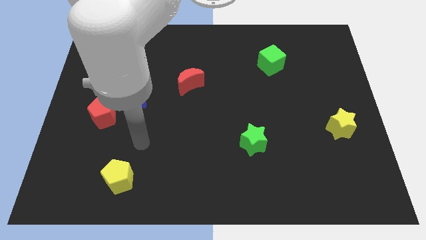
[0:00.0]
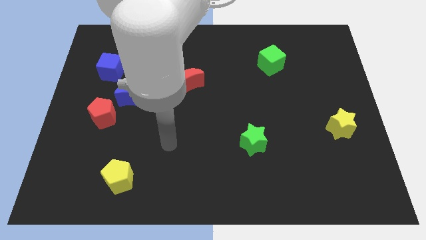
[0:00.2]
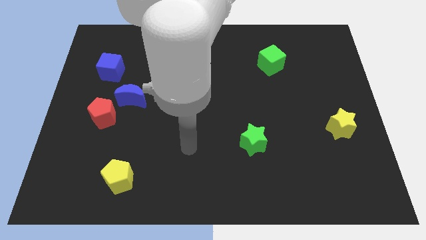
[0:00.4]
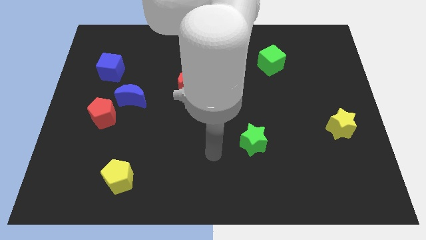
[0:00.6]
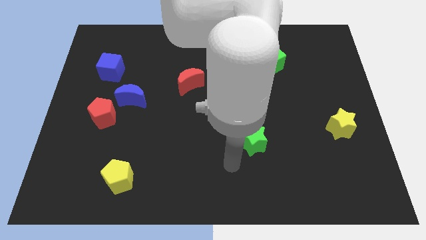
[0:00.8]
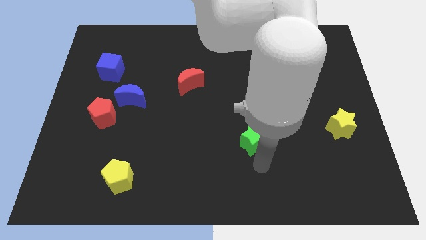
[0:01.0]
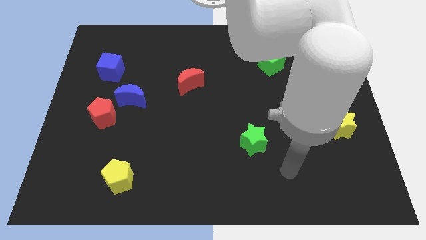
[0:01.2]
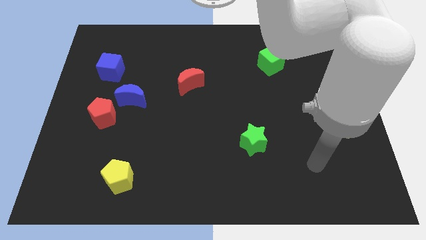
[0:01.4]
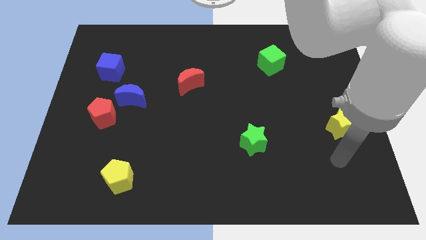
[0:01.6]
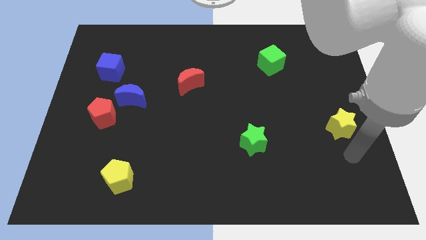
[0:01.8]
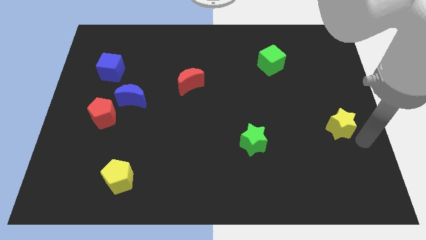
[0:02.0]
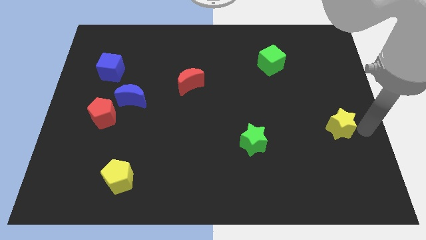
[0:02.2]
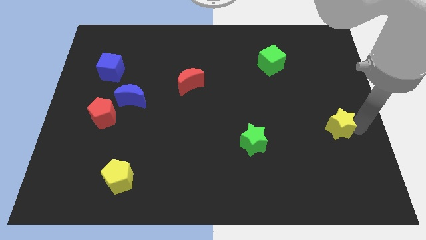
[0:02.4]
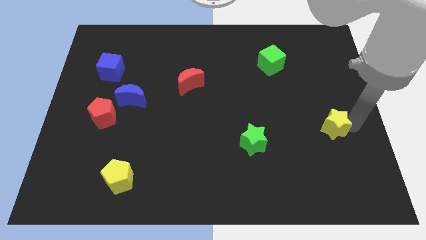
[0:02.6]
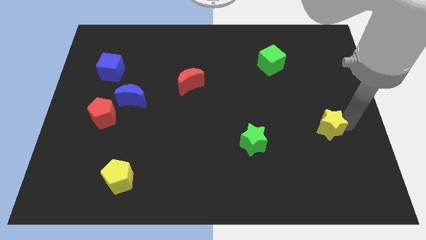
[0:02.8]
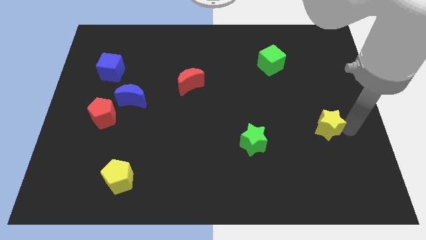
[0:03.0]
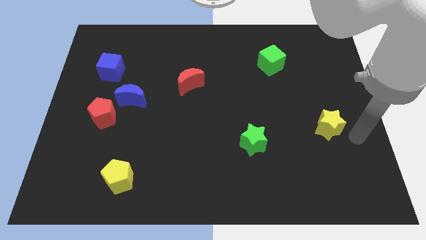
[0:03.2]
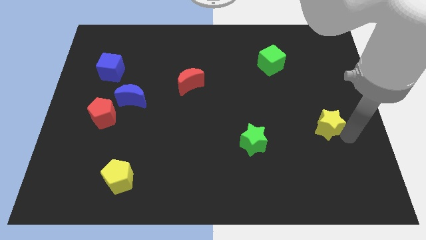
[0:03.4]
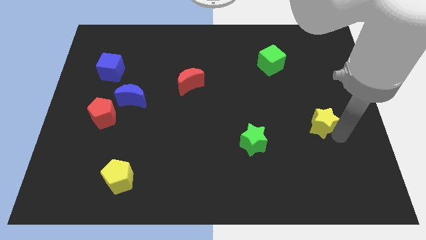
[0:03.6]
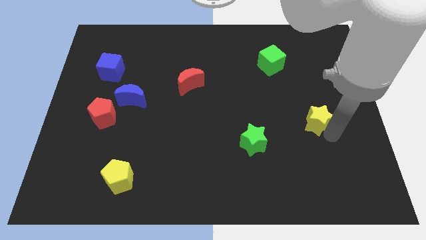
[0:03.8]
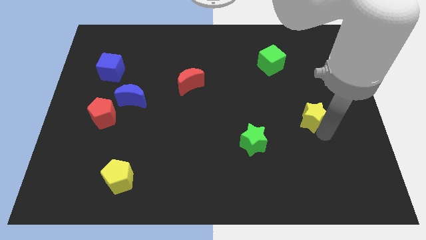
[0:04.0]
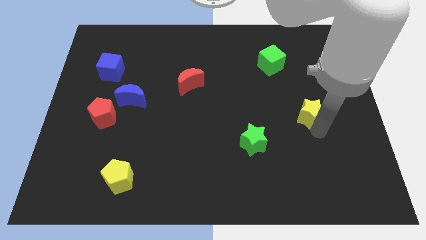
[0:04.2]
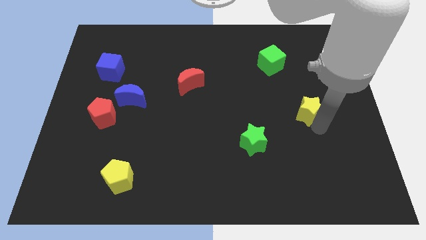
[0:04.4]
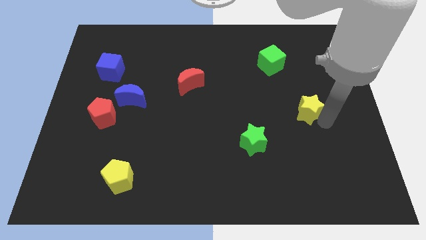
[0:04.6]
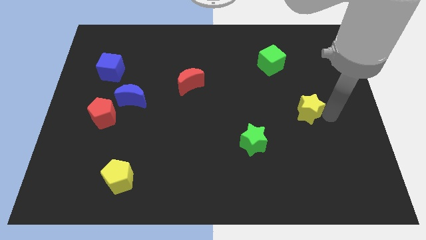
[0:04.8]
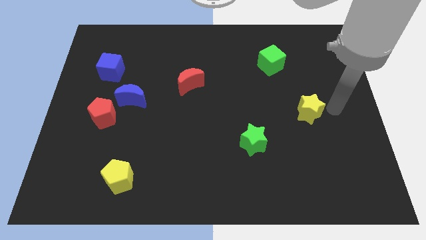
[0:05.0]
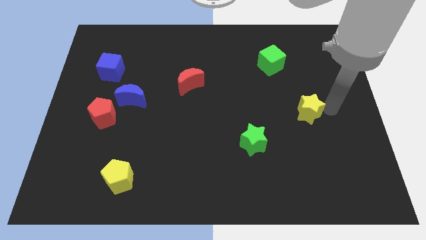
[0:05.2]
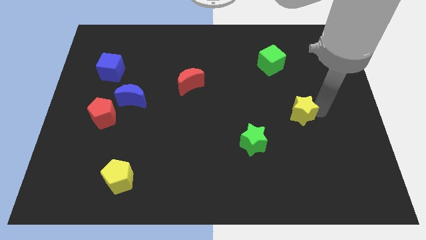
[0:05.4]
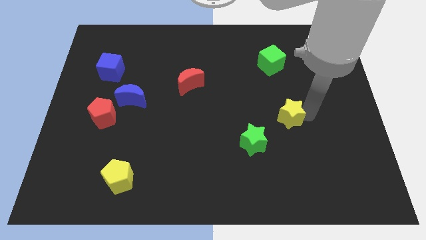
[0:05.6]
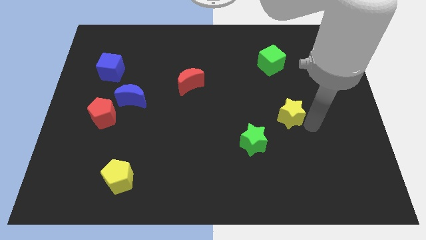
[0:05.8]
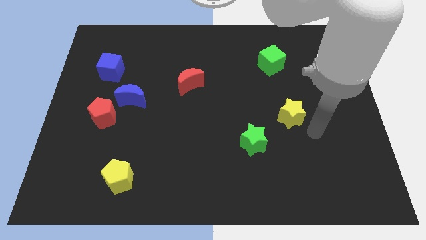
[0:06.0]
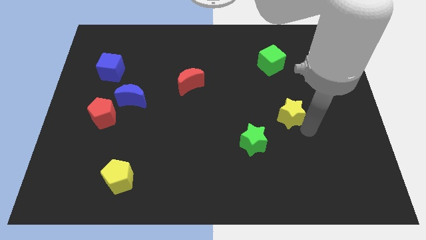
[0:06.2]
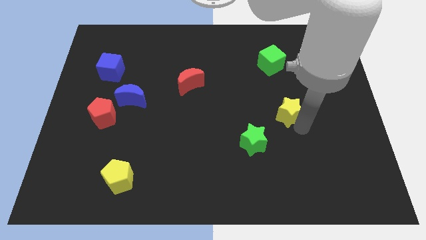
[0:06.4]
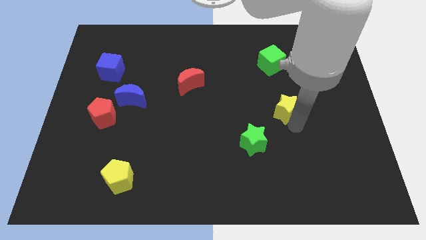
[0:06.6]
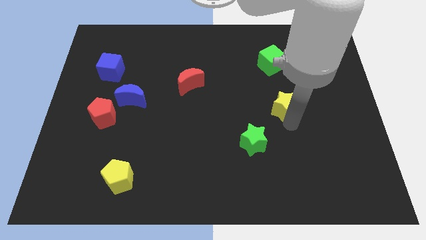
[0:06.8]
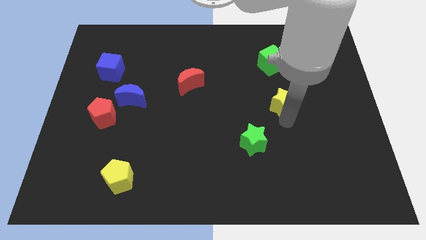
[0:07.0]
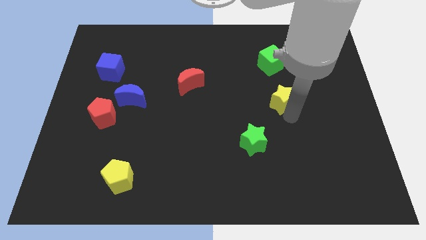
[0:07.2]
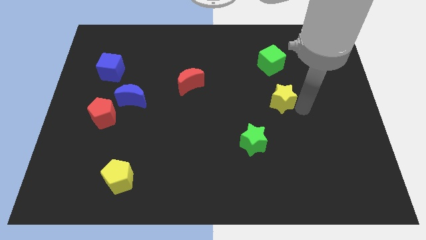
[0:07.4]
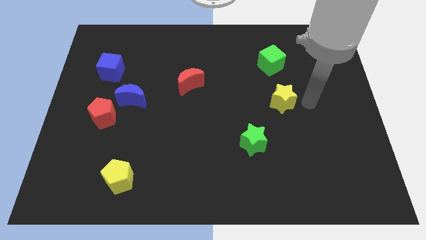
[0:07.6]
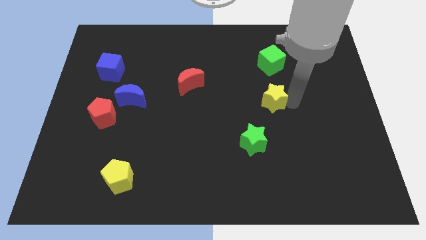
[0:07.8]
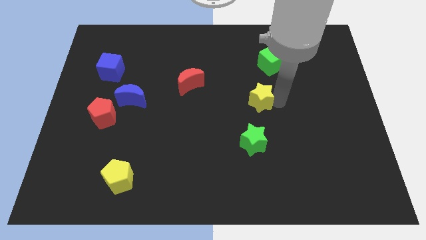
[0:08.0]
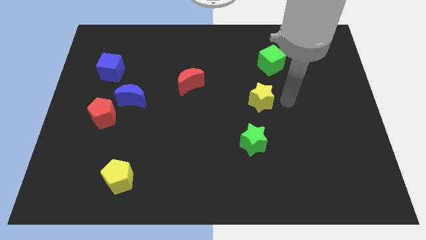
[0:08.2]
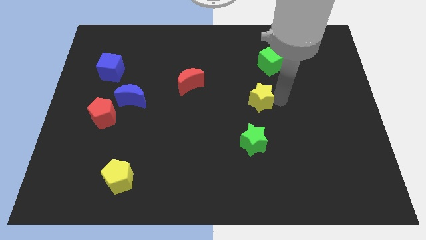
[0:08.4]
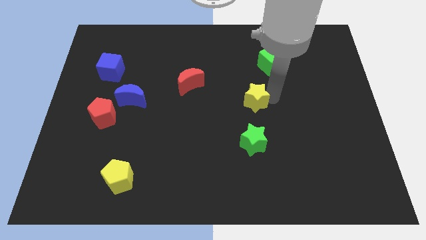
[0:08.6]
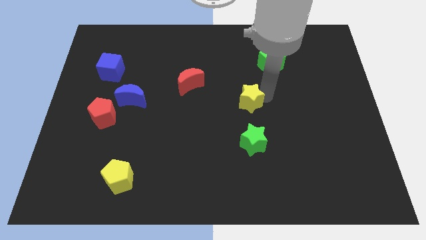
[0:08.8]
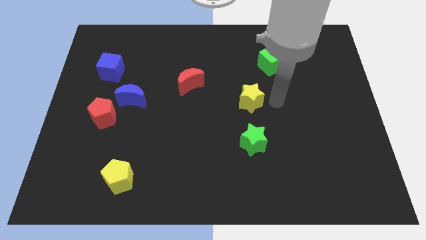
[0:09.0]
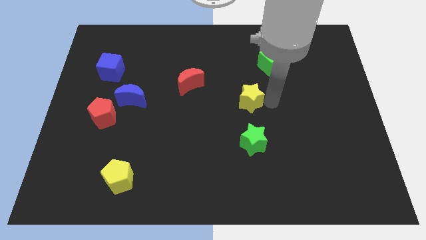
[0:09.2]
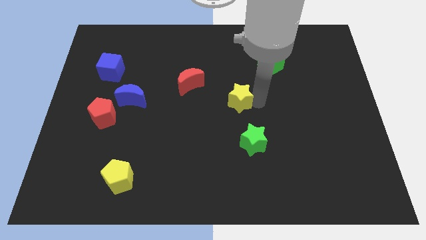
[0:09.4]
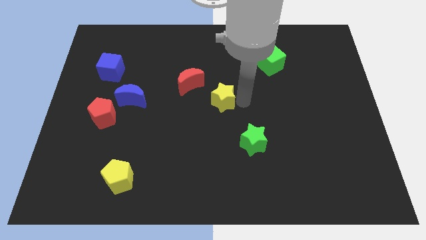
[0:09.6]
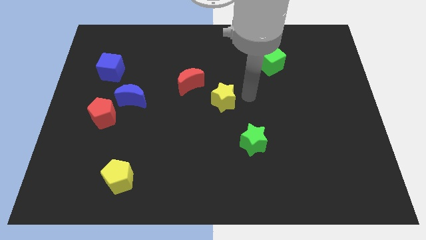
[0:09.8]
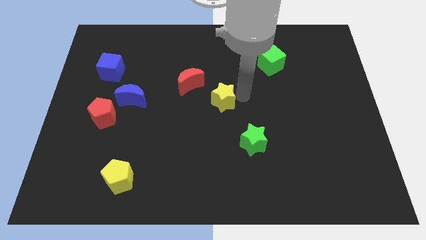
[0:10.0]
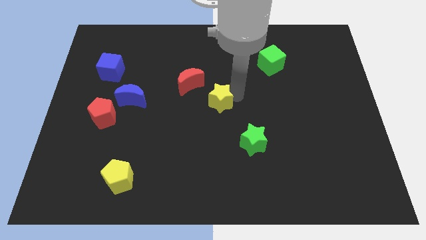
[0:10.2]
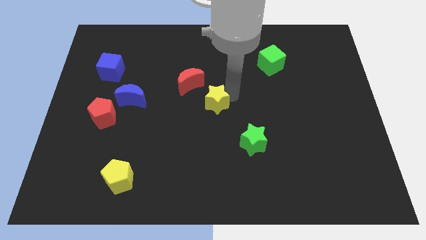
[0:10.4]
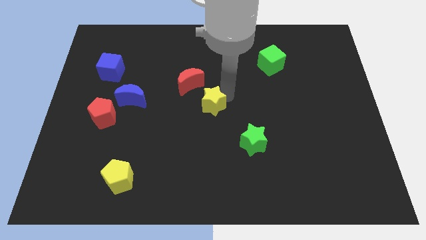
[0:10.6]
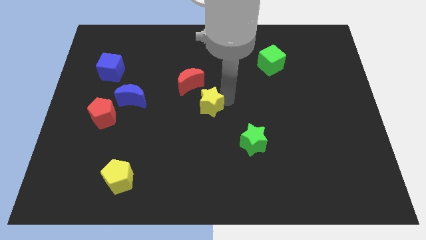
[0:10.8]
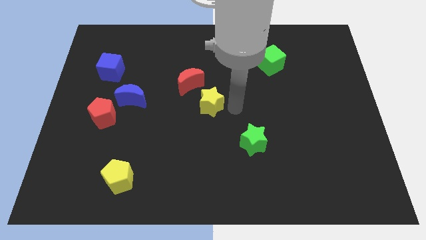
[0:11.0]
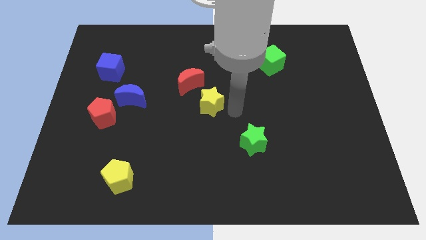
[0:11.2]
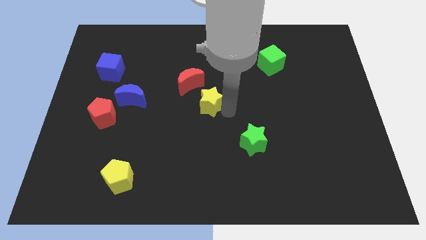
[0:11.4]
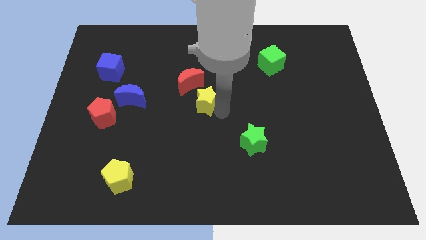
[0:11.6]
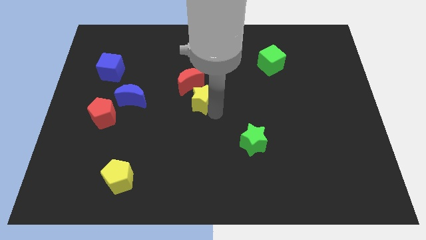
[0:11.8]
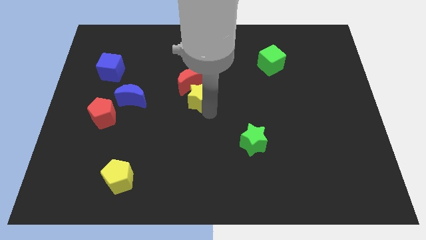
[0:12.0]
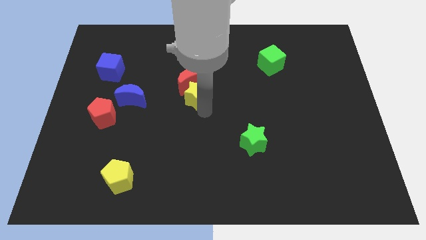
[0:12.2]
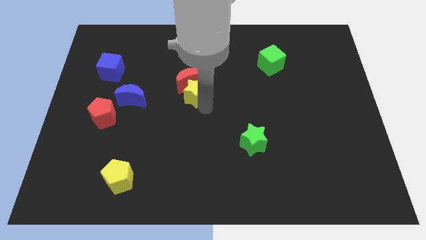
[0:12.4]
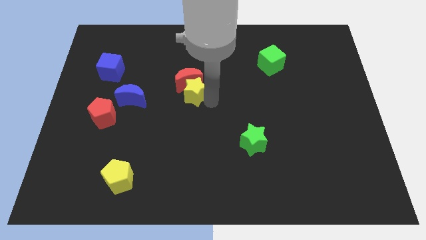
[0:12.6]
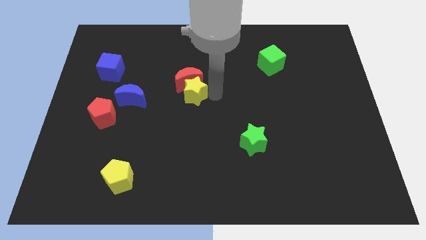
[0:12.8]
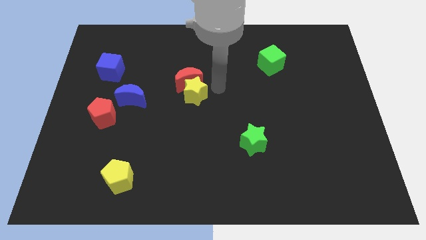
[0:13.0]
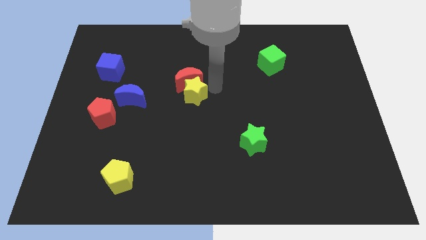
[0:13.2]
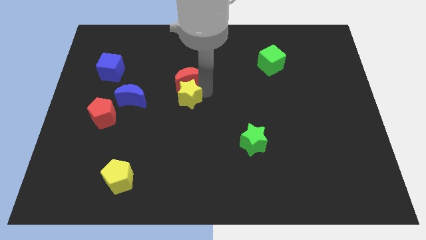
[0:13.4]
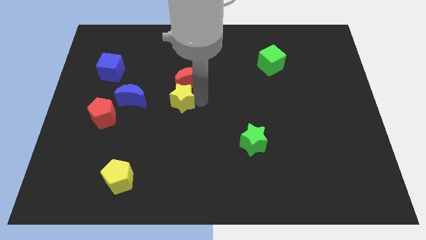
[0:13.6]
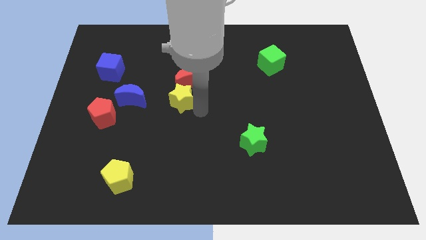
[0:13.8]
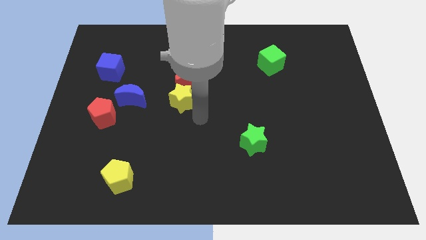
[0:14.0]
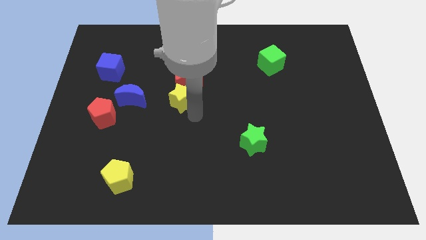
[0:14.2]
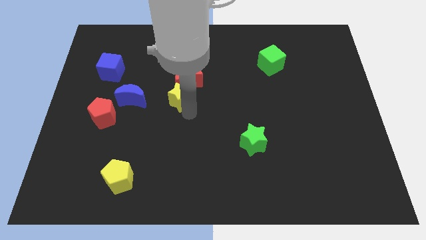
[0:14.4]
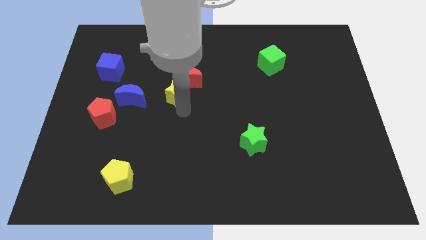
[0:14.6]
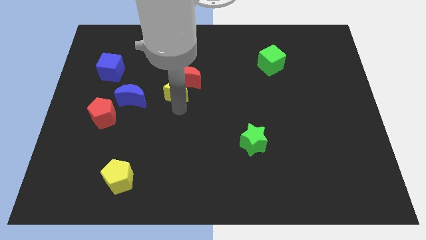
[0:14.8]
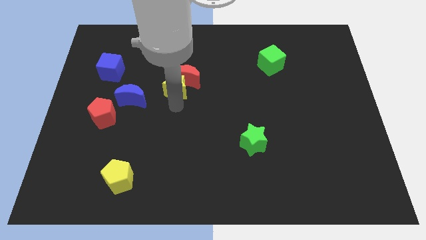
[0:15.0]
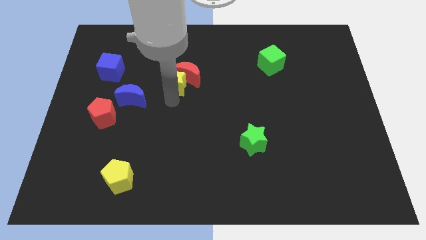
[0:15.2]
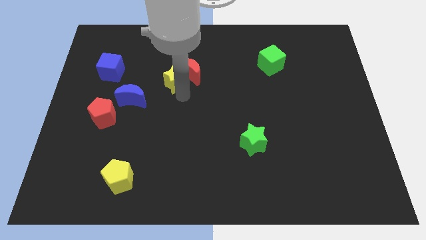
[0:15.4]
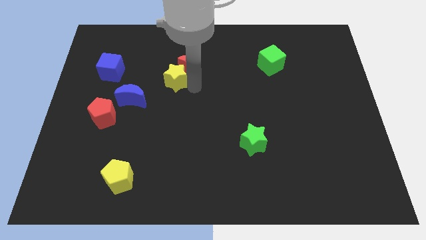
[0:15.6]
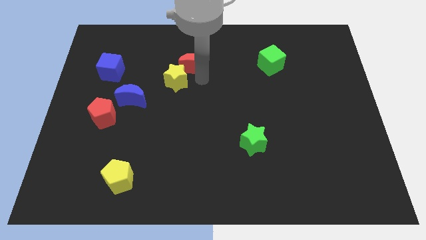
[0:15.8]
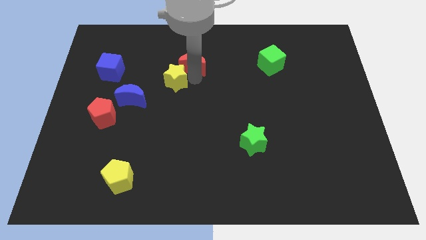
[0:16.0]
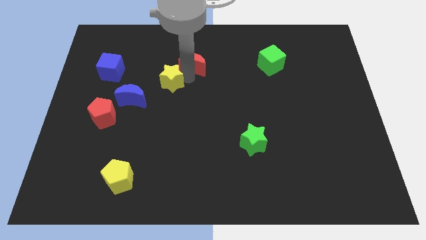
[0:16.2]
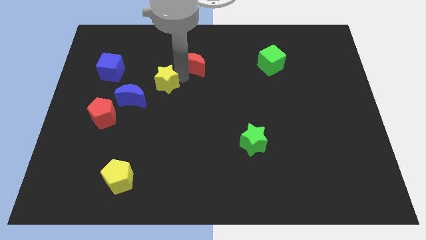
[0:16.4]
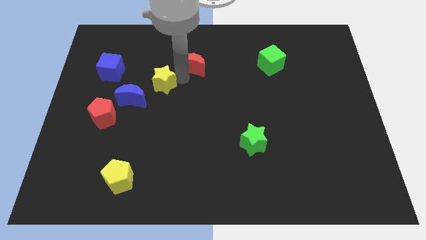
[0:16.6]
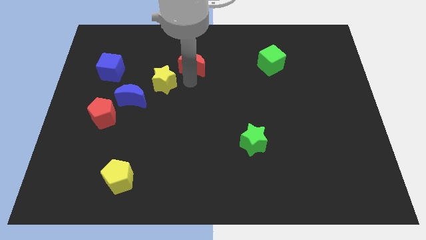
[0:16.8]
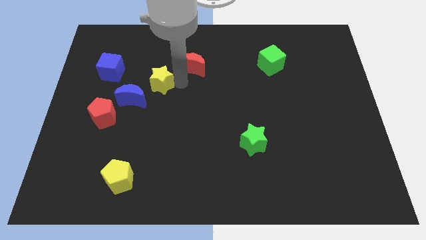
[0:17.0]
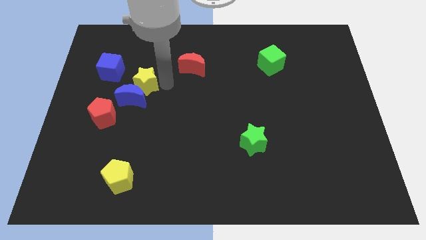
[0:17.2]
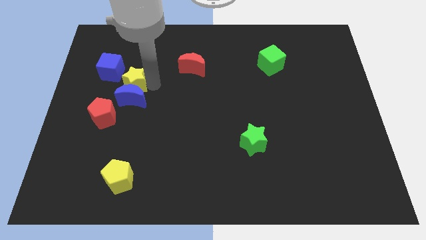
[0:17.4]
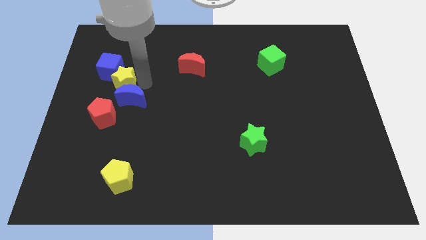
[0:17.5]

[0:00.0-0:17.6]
slide the yellow star below the blue cube
